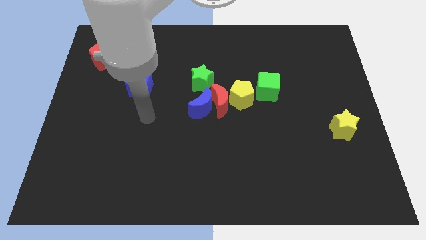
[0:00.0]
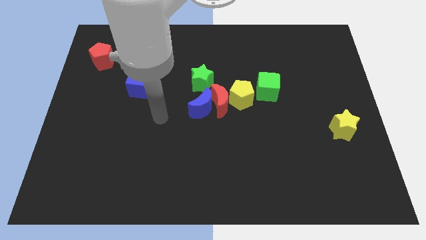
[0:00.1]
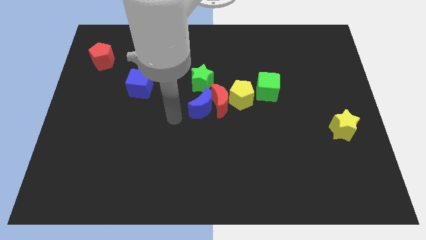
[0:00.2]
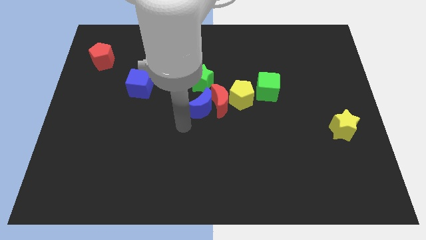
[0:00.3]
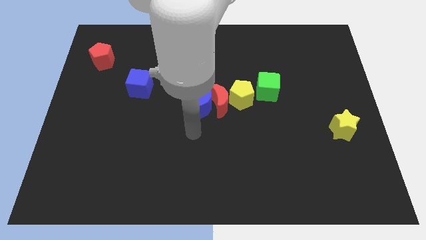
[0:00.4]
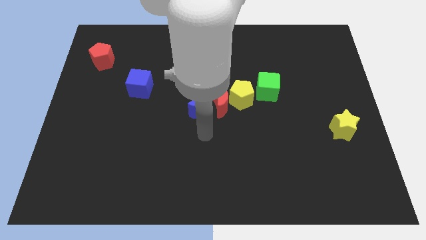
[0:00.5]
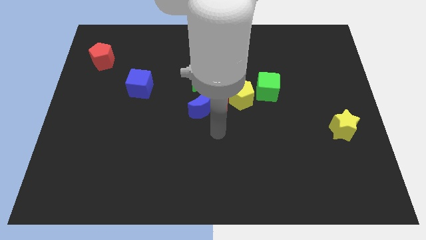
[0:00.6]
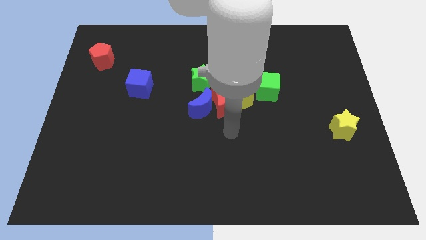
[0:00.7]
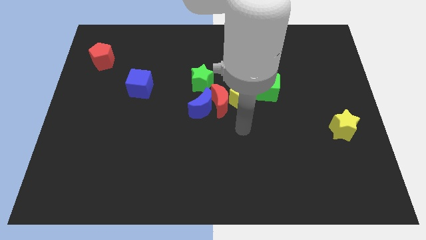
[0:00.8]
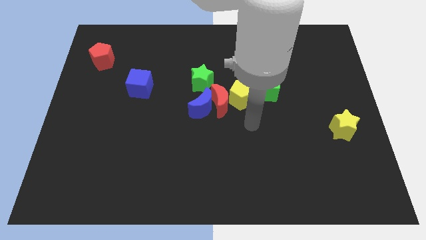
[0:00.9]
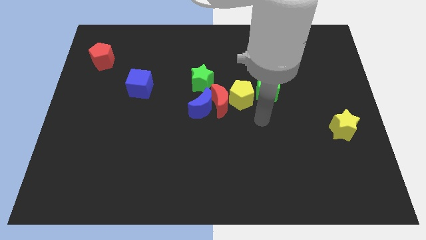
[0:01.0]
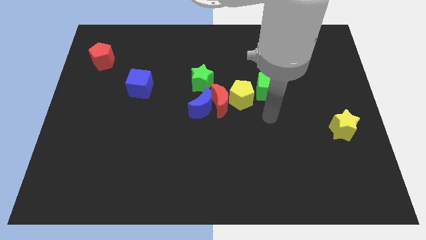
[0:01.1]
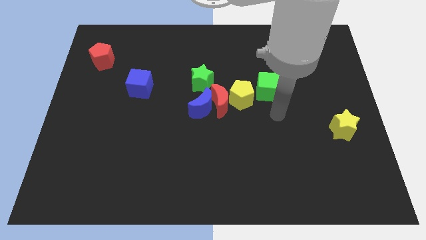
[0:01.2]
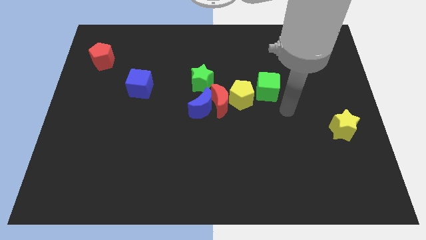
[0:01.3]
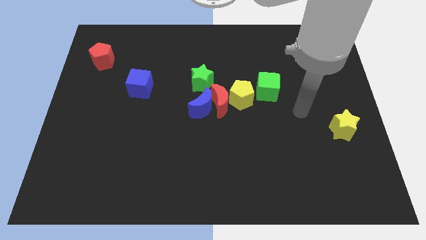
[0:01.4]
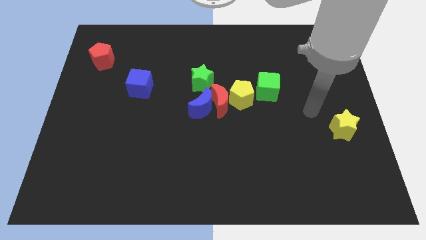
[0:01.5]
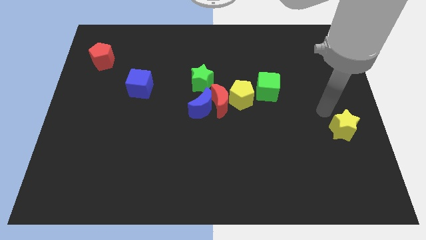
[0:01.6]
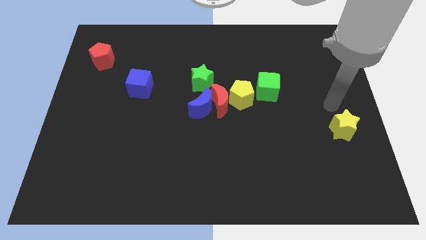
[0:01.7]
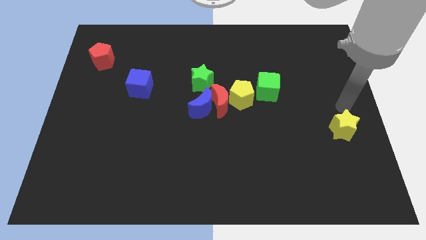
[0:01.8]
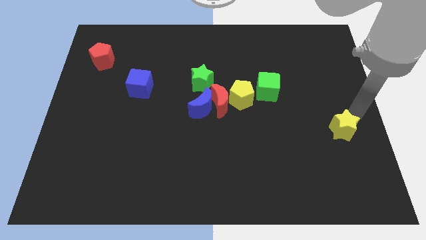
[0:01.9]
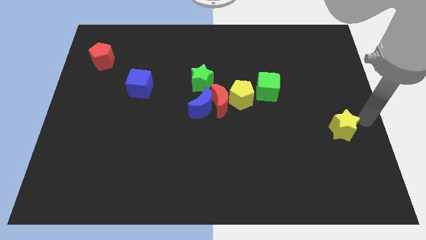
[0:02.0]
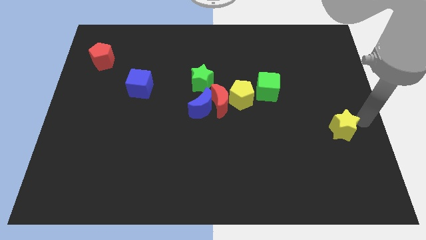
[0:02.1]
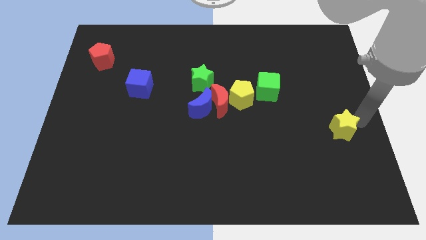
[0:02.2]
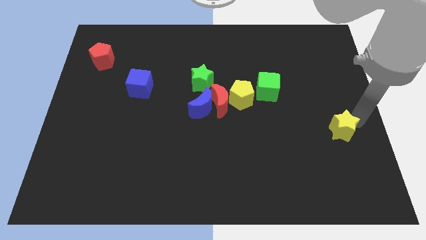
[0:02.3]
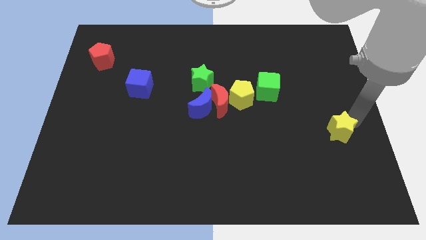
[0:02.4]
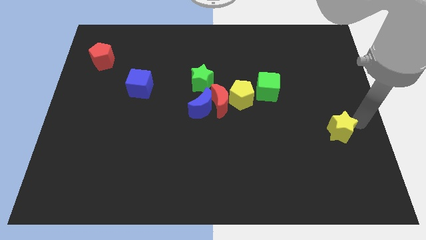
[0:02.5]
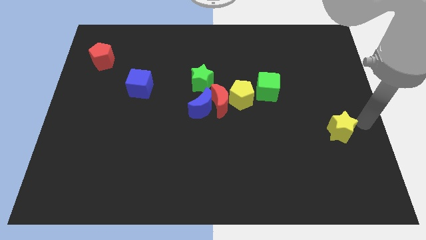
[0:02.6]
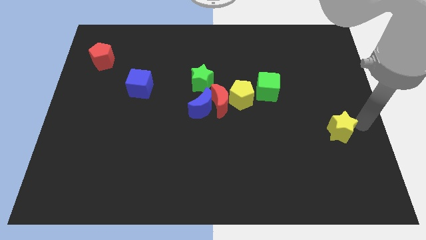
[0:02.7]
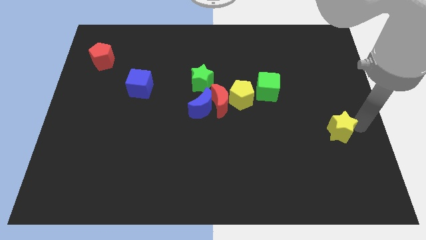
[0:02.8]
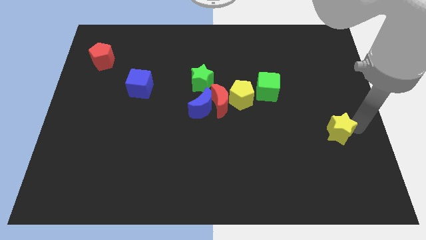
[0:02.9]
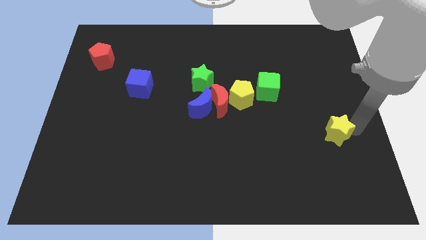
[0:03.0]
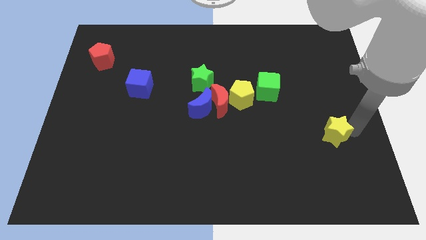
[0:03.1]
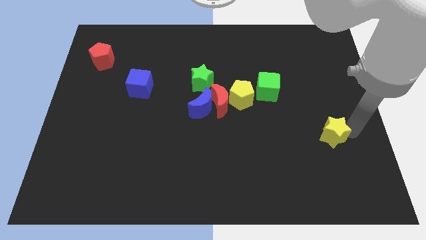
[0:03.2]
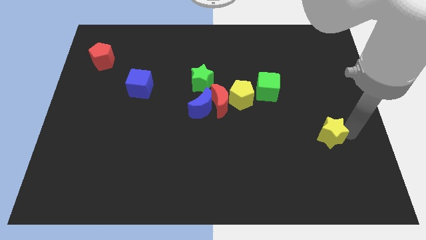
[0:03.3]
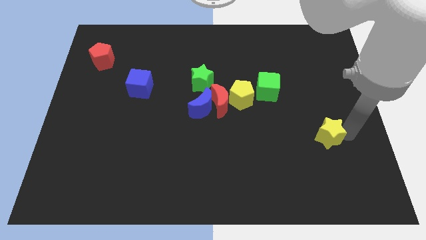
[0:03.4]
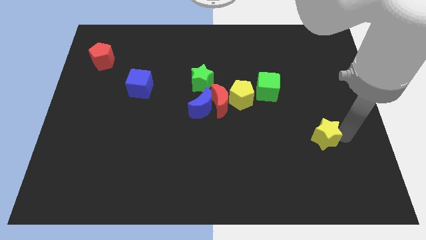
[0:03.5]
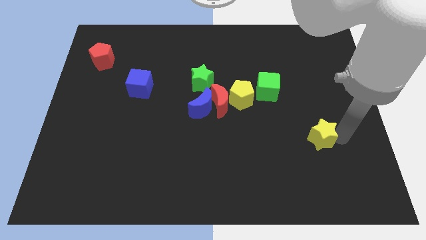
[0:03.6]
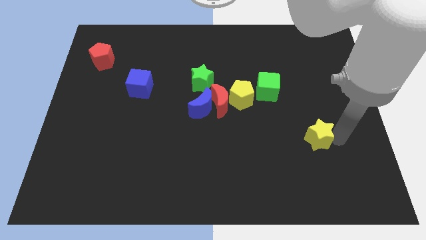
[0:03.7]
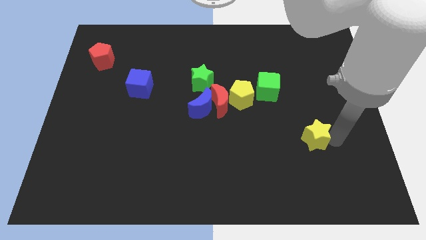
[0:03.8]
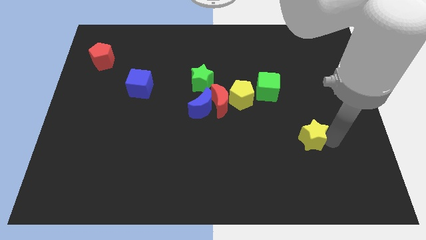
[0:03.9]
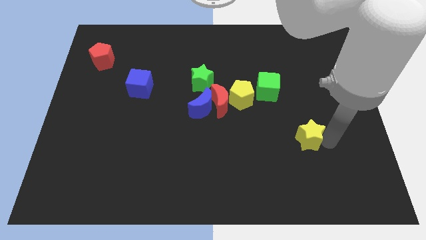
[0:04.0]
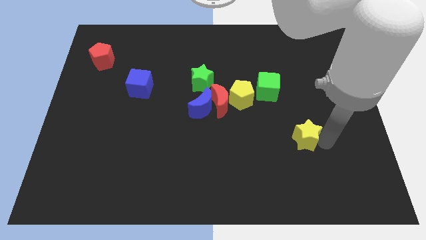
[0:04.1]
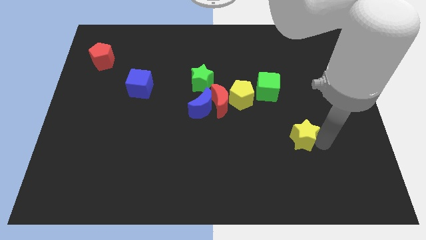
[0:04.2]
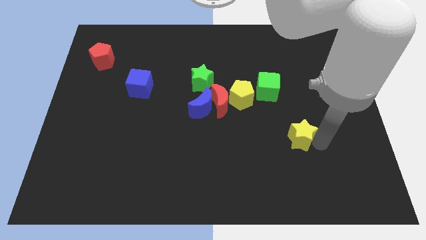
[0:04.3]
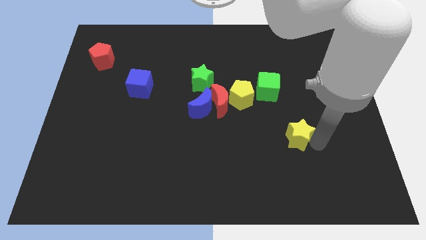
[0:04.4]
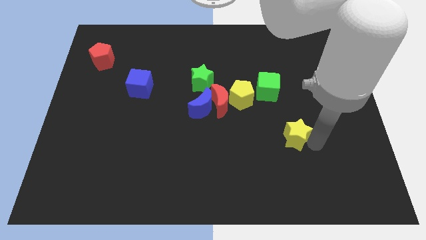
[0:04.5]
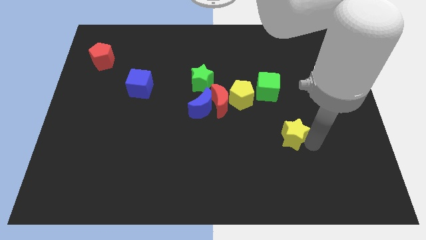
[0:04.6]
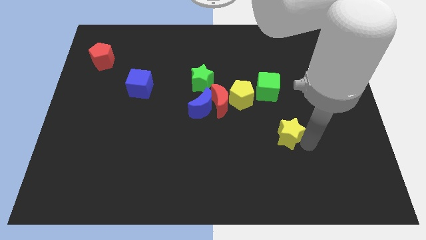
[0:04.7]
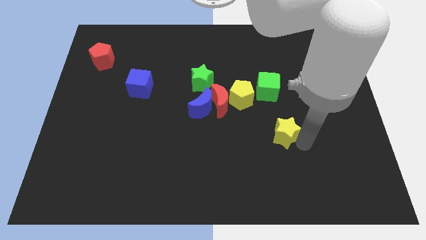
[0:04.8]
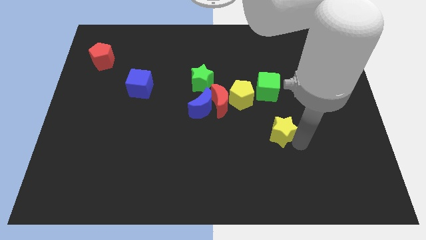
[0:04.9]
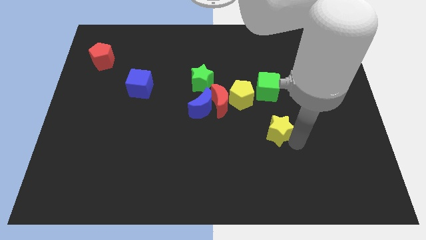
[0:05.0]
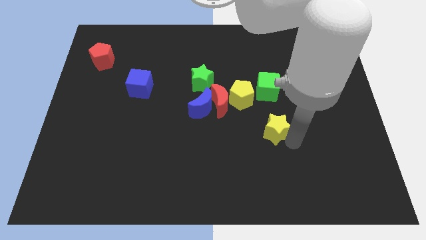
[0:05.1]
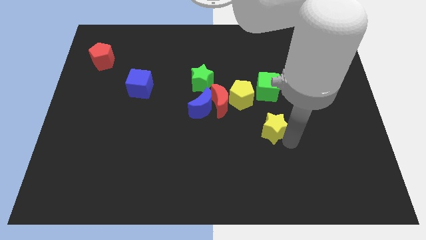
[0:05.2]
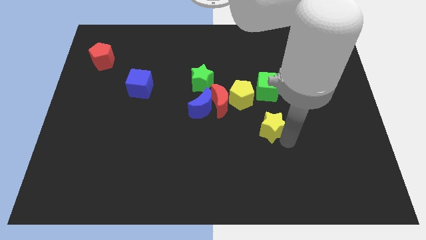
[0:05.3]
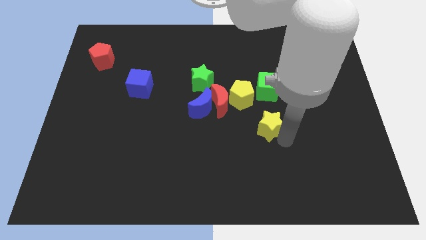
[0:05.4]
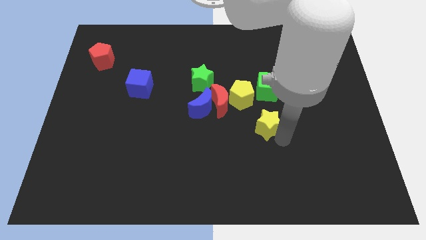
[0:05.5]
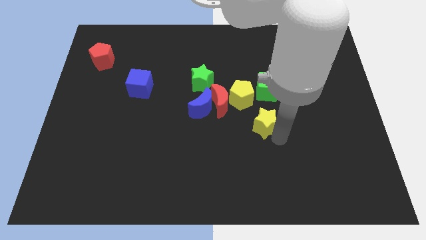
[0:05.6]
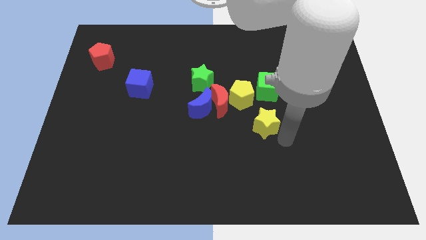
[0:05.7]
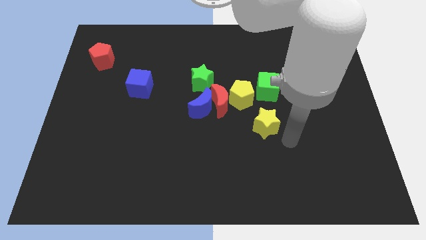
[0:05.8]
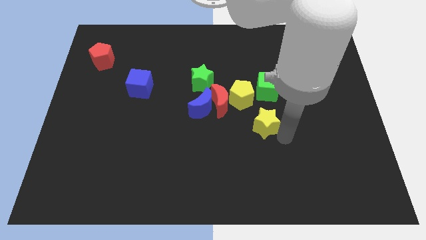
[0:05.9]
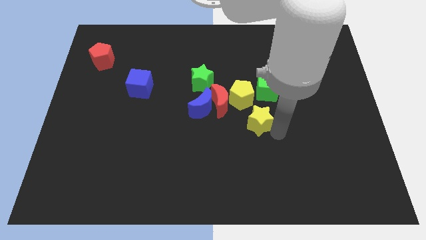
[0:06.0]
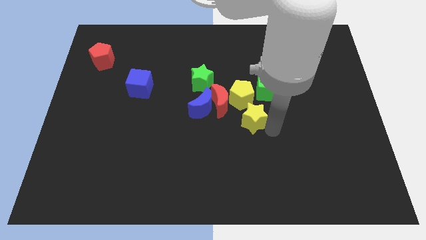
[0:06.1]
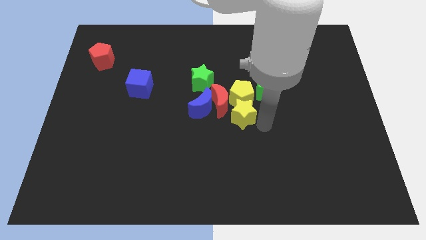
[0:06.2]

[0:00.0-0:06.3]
push the yellow star to the red moon

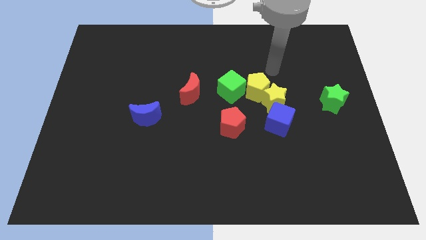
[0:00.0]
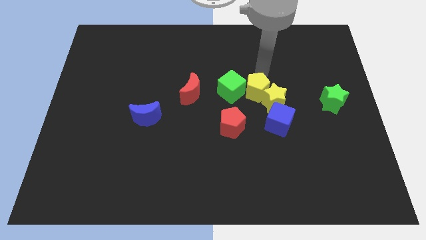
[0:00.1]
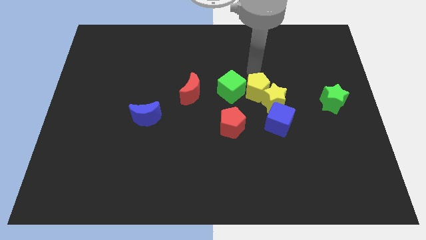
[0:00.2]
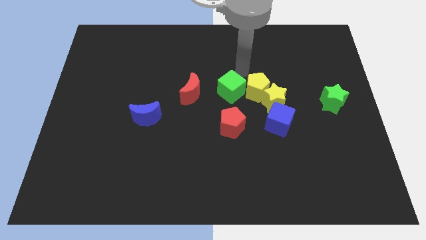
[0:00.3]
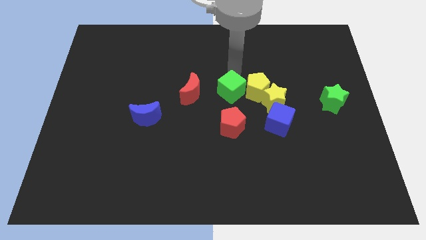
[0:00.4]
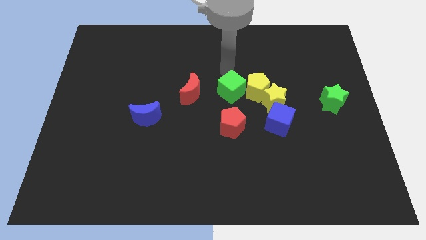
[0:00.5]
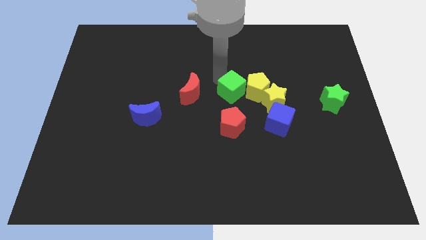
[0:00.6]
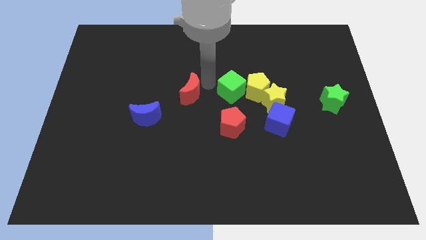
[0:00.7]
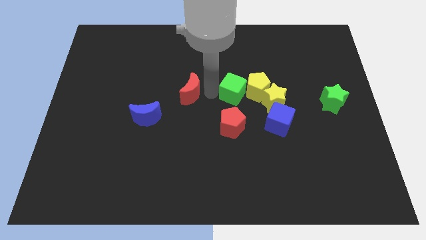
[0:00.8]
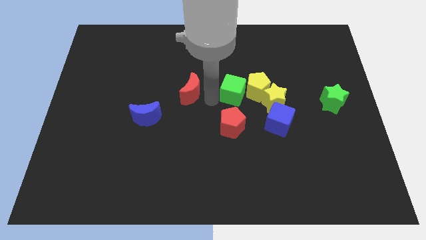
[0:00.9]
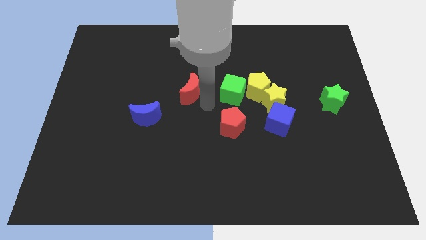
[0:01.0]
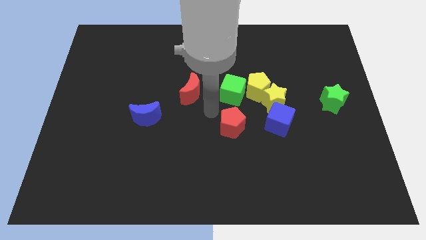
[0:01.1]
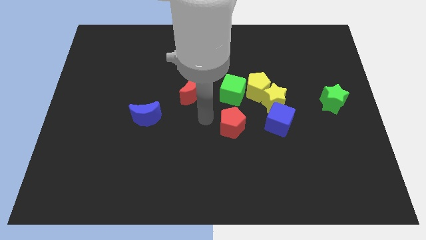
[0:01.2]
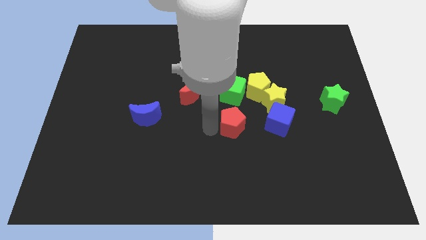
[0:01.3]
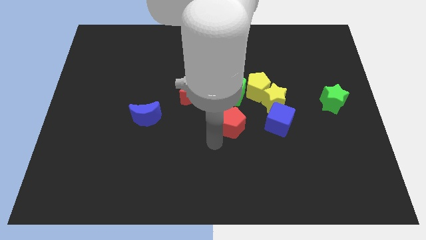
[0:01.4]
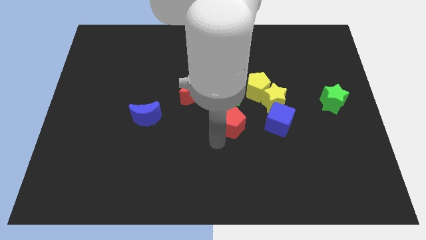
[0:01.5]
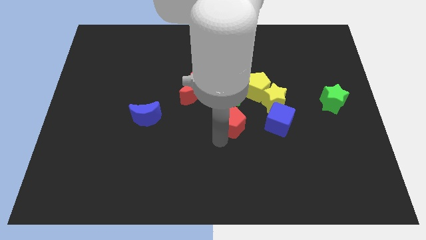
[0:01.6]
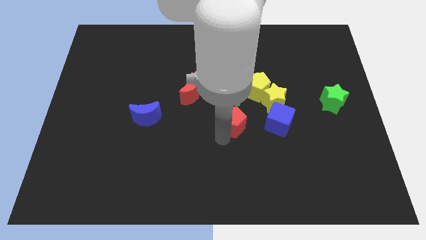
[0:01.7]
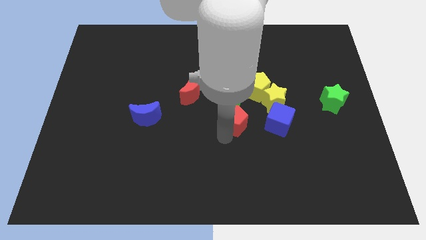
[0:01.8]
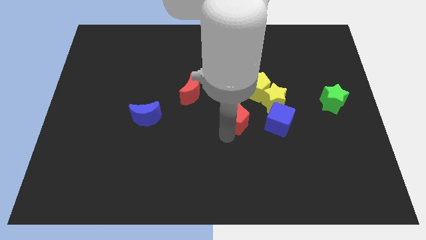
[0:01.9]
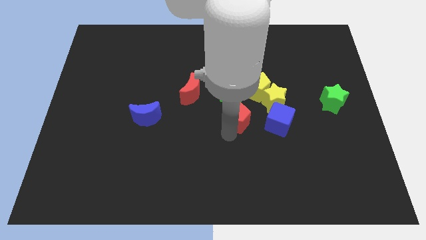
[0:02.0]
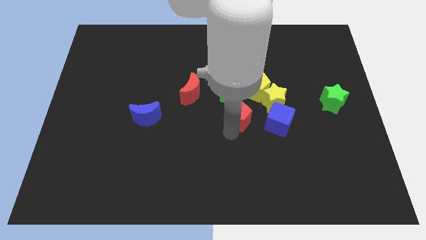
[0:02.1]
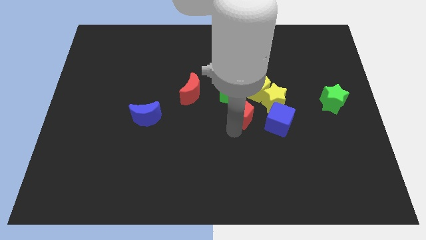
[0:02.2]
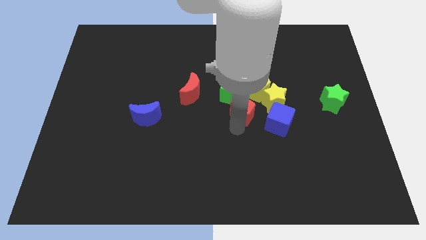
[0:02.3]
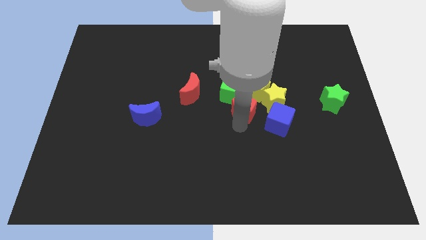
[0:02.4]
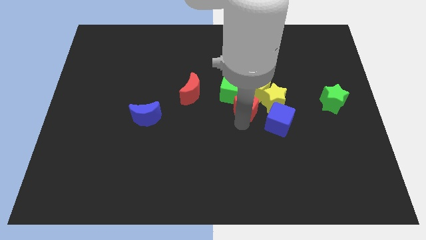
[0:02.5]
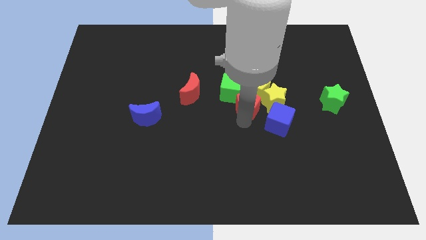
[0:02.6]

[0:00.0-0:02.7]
move the red pentagon next to the yellow pentagon
